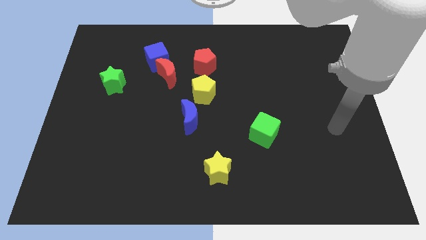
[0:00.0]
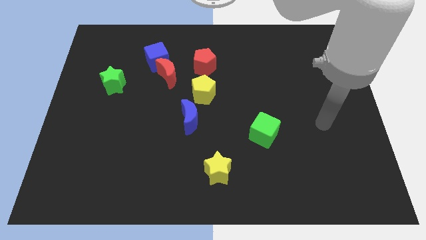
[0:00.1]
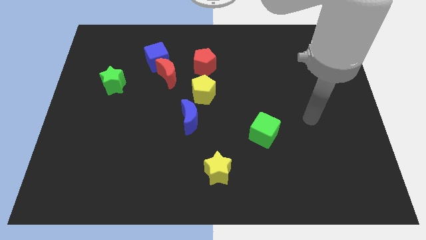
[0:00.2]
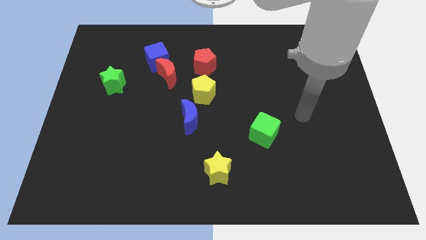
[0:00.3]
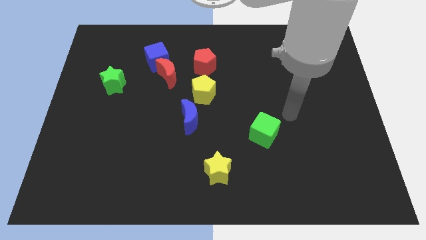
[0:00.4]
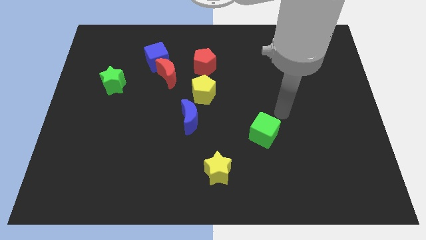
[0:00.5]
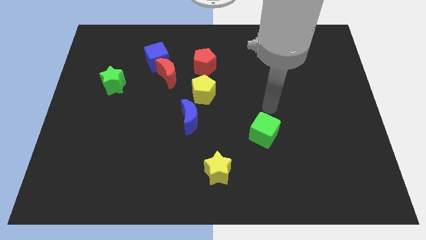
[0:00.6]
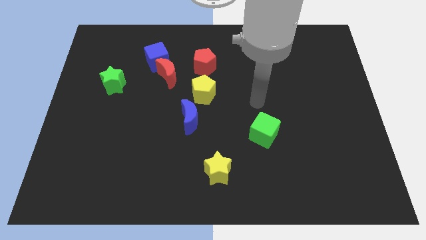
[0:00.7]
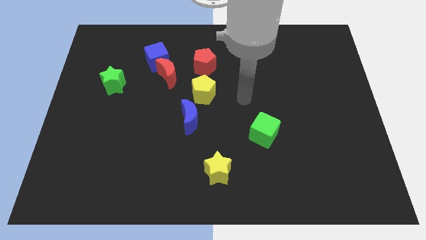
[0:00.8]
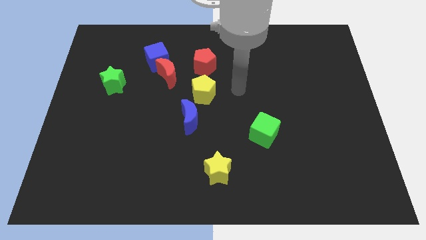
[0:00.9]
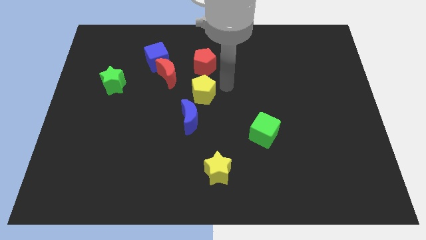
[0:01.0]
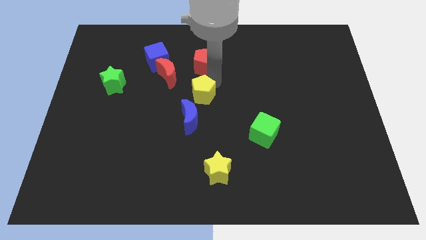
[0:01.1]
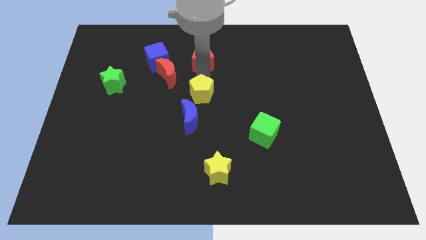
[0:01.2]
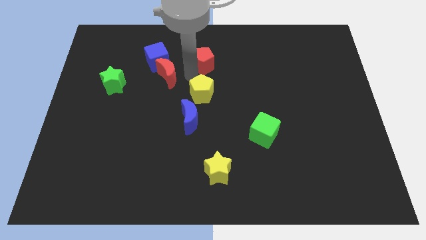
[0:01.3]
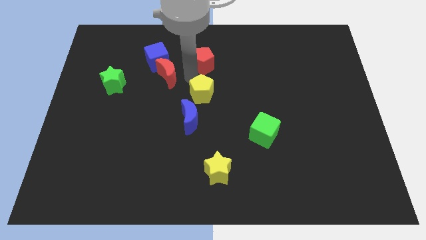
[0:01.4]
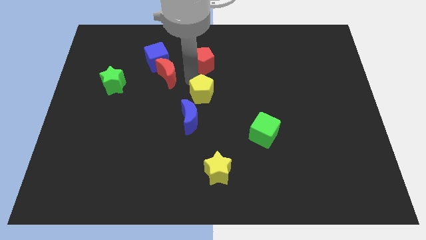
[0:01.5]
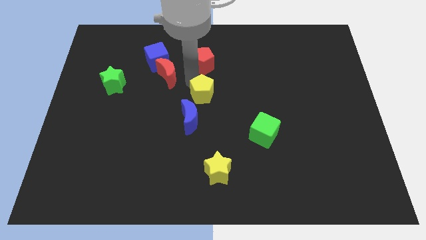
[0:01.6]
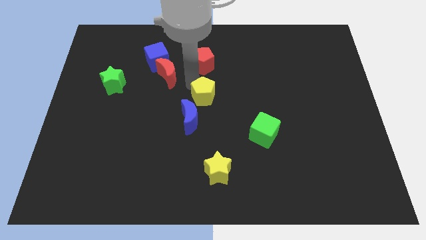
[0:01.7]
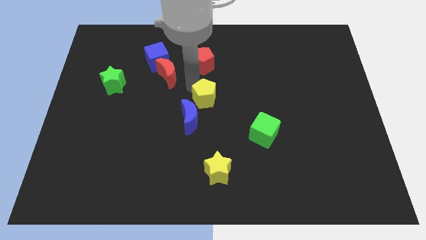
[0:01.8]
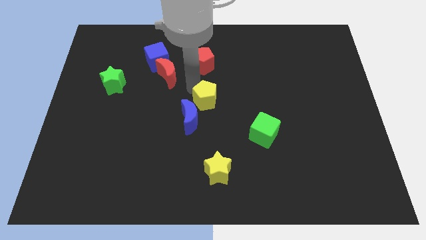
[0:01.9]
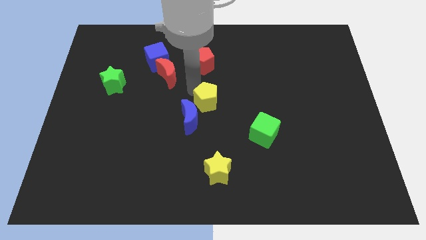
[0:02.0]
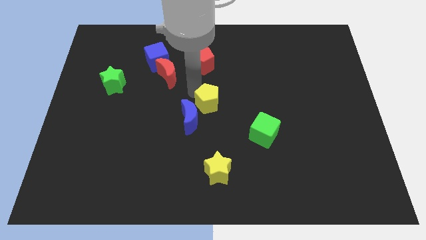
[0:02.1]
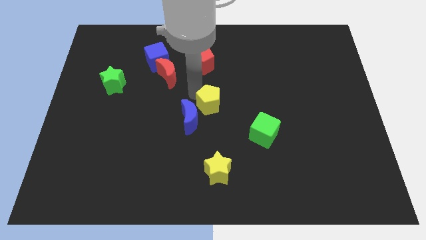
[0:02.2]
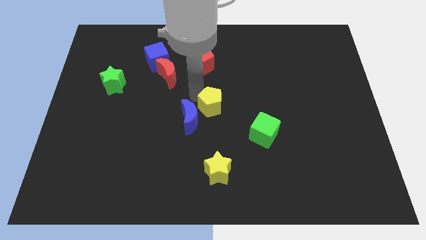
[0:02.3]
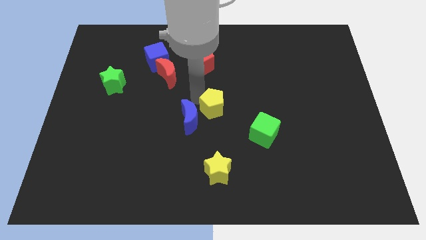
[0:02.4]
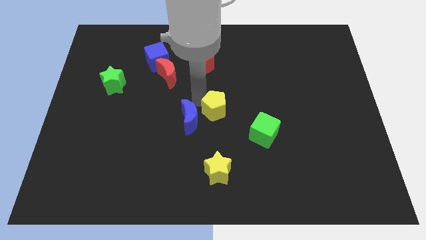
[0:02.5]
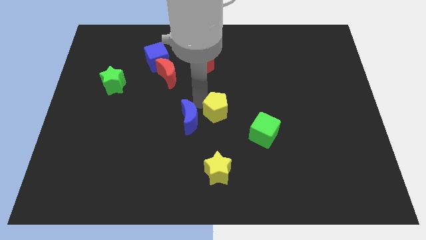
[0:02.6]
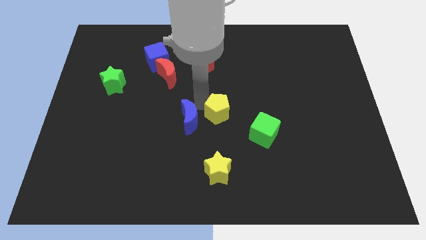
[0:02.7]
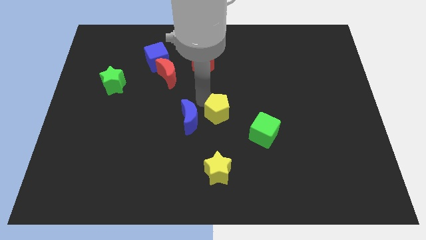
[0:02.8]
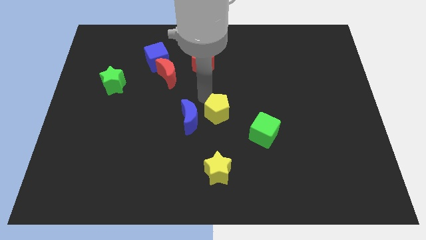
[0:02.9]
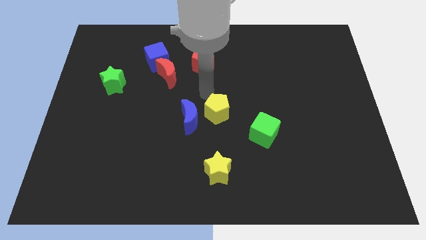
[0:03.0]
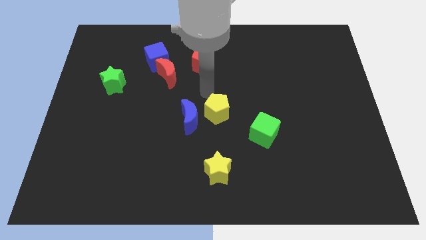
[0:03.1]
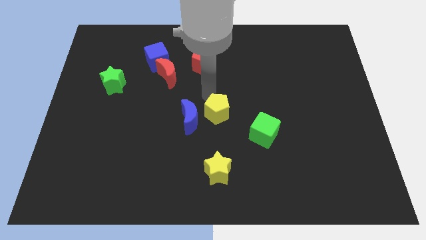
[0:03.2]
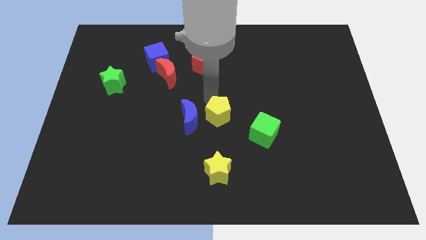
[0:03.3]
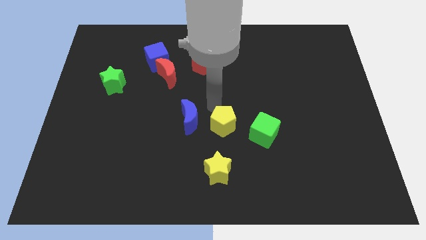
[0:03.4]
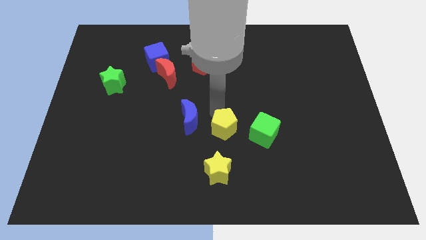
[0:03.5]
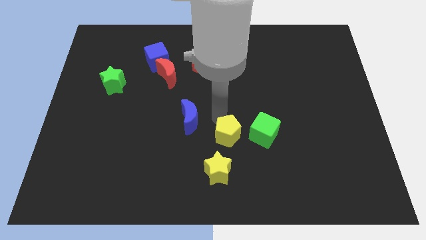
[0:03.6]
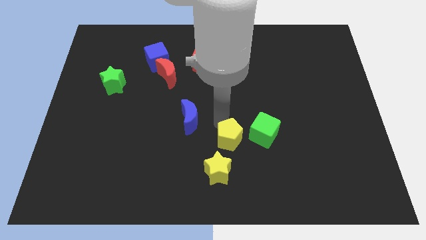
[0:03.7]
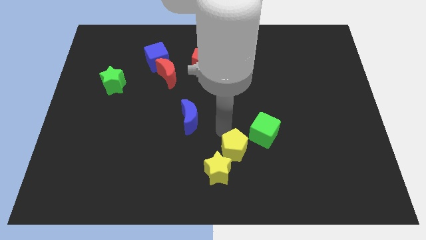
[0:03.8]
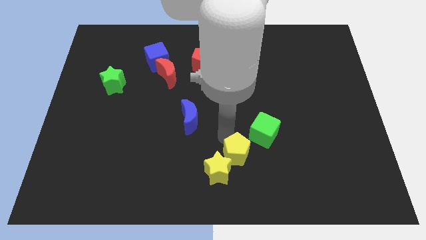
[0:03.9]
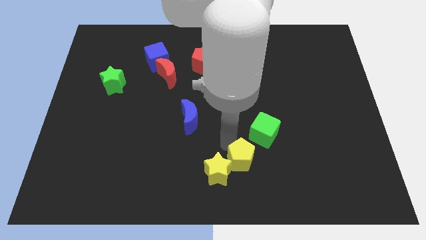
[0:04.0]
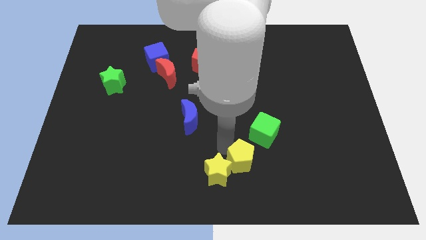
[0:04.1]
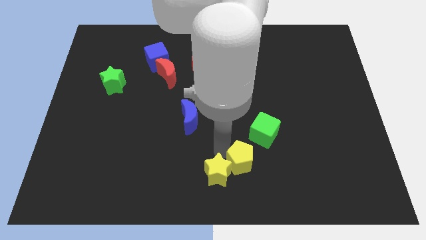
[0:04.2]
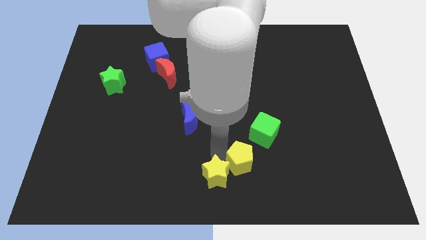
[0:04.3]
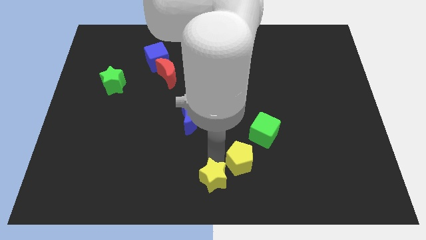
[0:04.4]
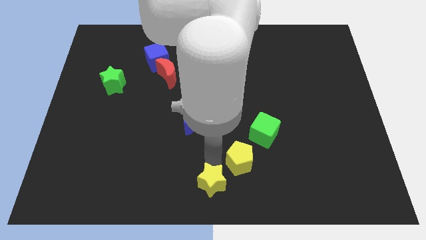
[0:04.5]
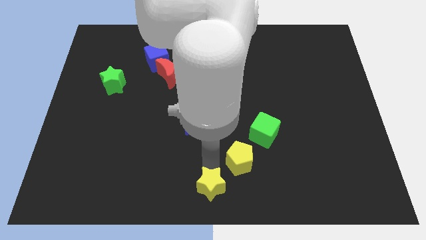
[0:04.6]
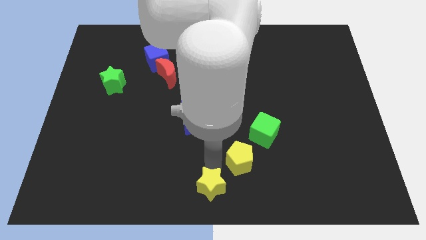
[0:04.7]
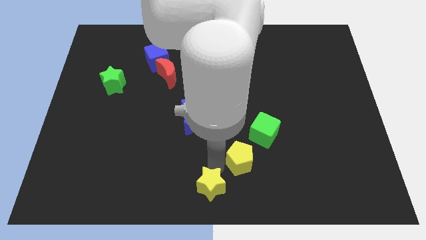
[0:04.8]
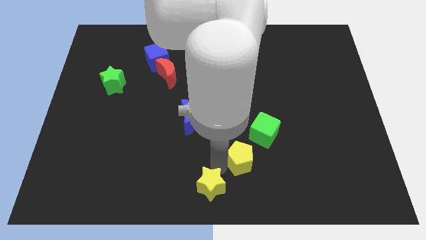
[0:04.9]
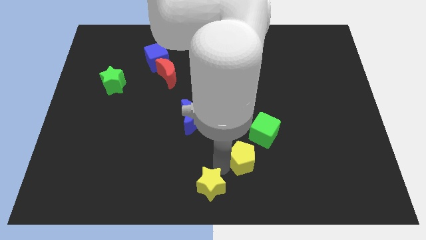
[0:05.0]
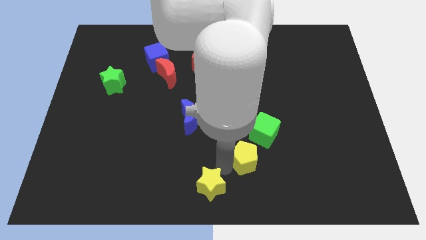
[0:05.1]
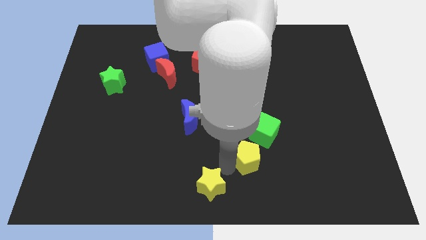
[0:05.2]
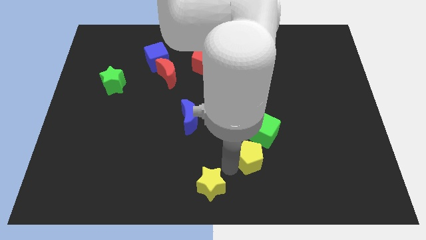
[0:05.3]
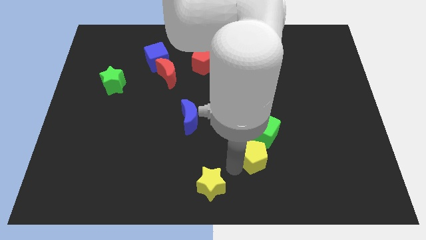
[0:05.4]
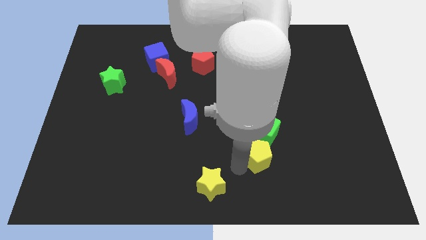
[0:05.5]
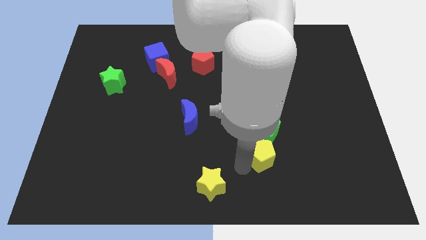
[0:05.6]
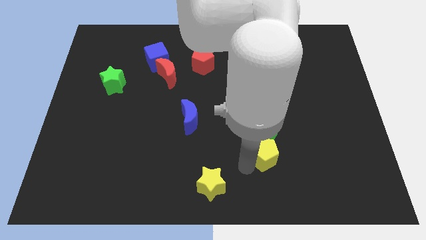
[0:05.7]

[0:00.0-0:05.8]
push the yellow pentagon to the bottom right of the green cube

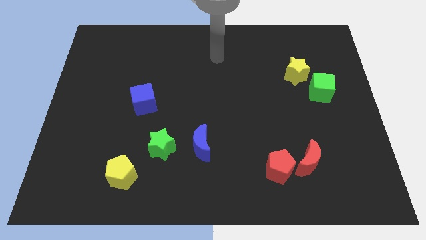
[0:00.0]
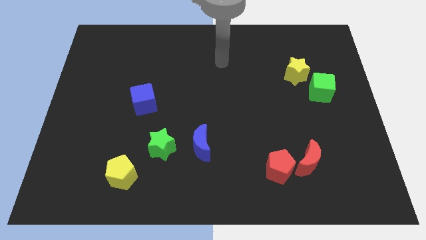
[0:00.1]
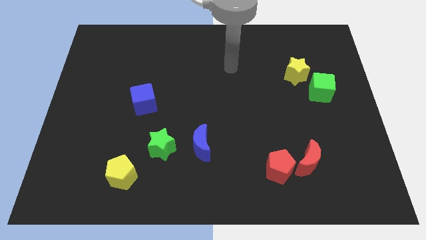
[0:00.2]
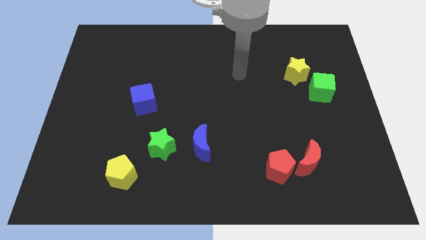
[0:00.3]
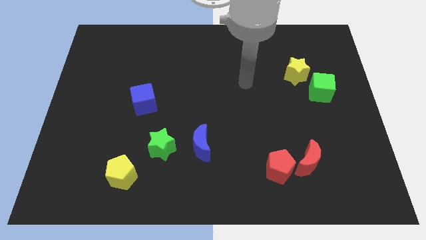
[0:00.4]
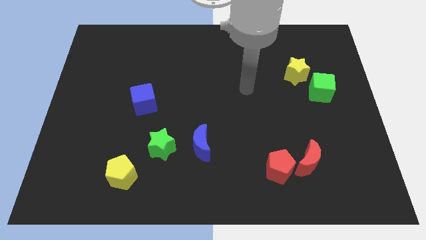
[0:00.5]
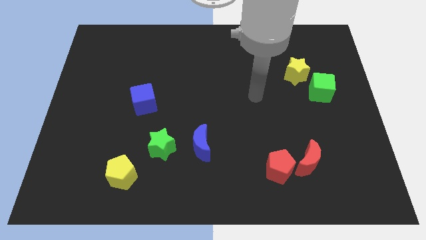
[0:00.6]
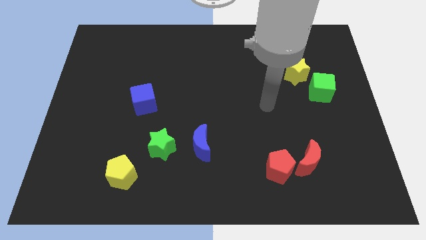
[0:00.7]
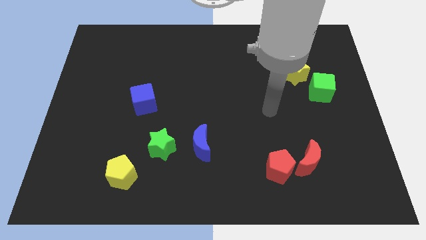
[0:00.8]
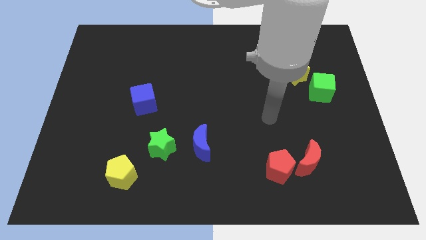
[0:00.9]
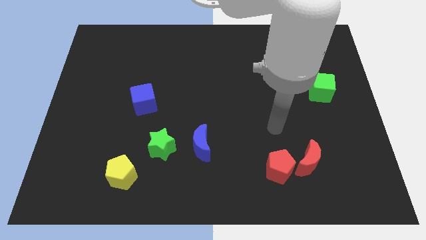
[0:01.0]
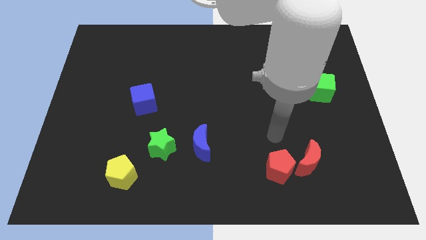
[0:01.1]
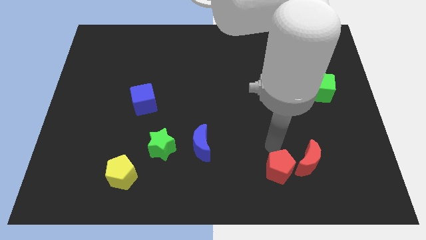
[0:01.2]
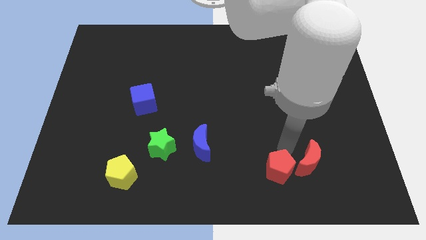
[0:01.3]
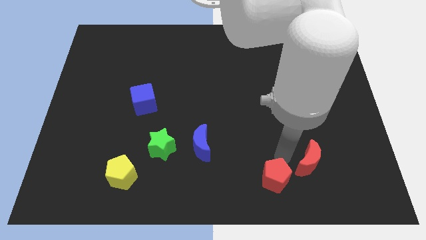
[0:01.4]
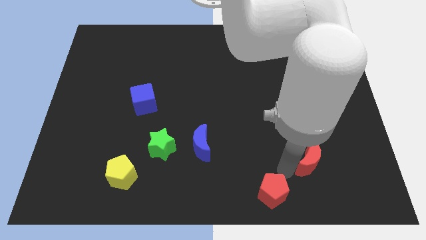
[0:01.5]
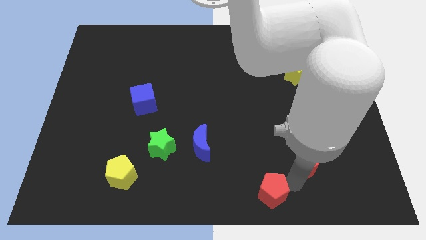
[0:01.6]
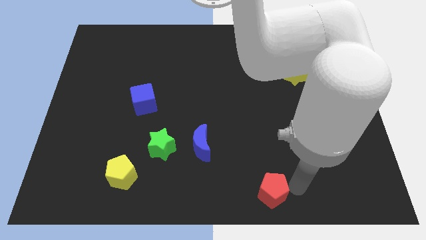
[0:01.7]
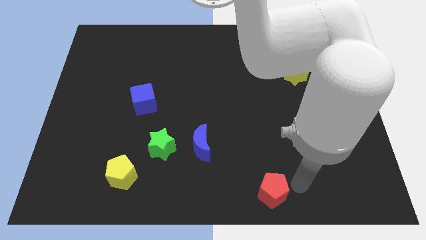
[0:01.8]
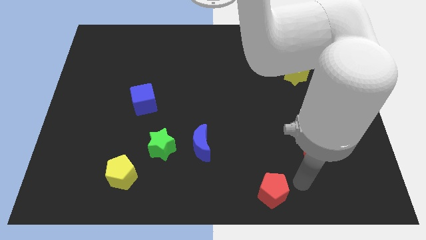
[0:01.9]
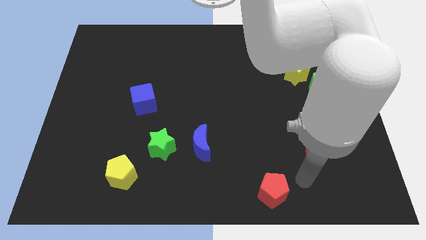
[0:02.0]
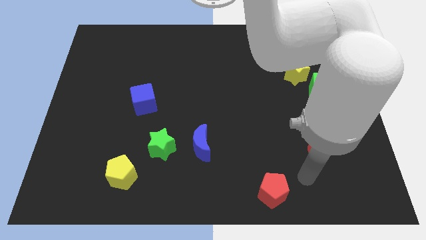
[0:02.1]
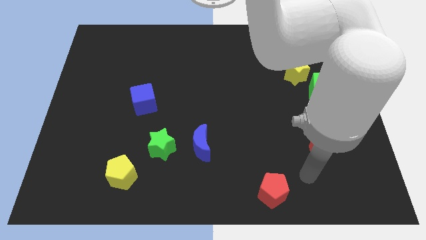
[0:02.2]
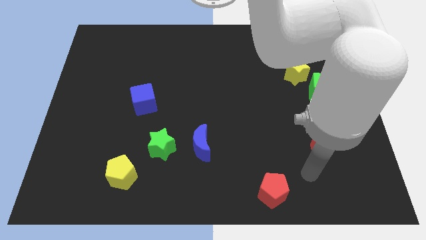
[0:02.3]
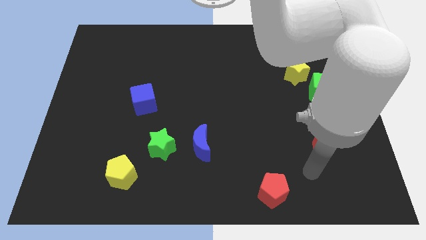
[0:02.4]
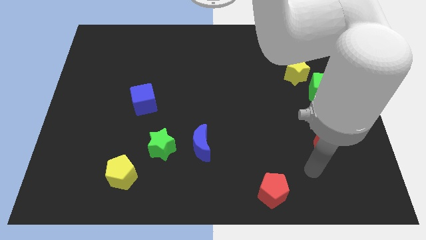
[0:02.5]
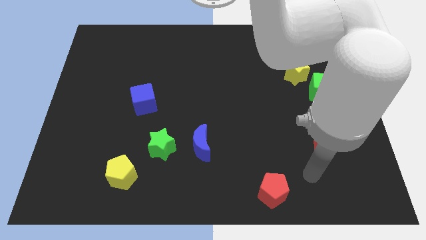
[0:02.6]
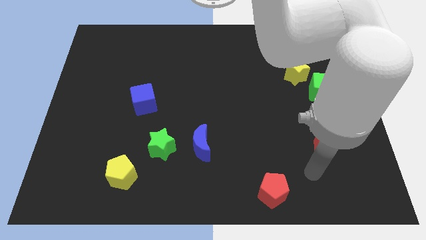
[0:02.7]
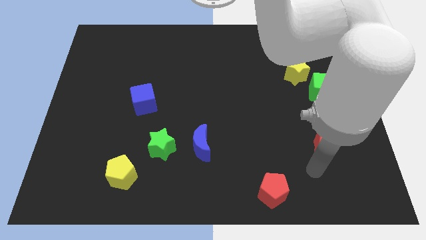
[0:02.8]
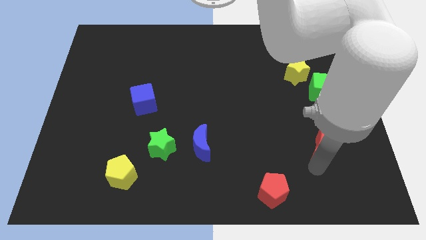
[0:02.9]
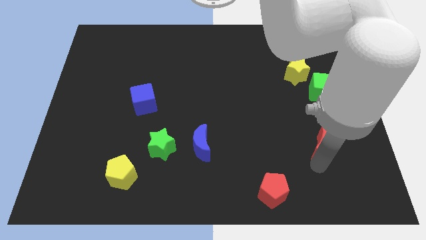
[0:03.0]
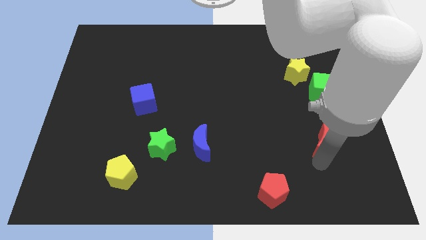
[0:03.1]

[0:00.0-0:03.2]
slide the red moon below the green cube
